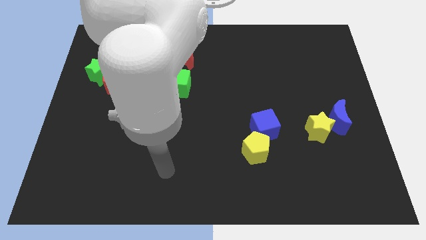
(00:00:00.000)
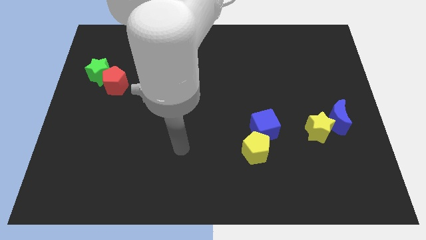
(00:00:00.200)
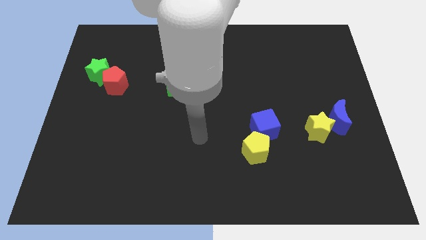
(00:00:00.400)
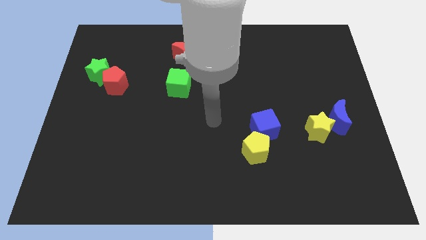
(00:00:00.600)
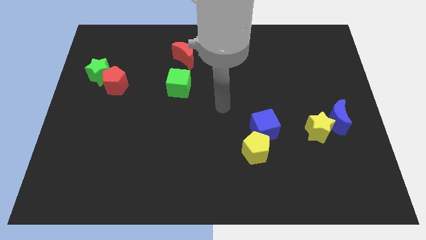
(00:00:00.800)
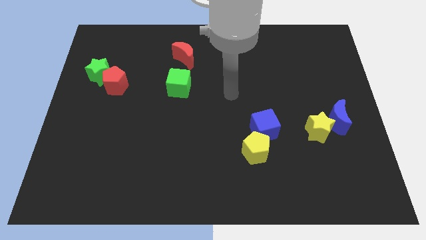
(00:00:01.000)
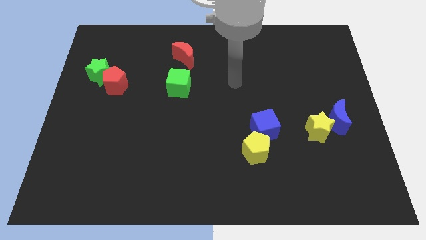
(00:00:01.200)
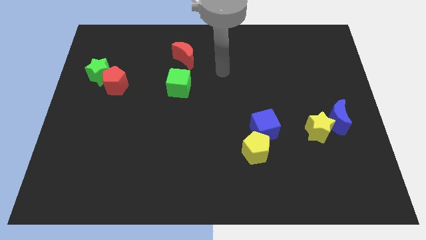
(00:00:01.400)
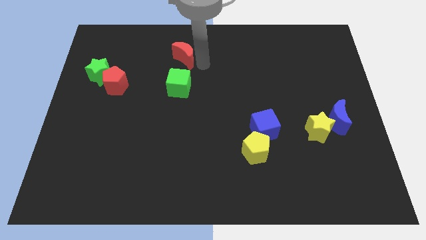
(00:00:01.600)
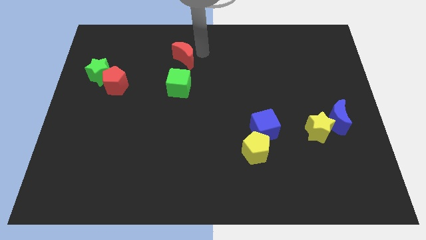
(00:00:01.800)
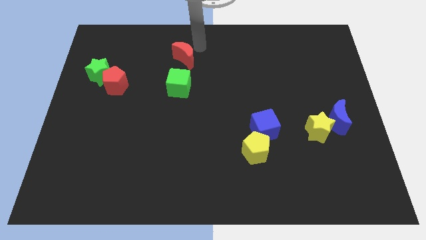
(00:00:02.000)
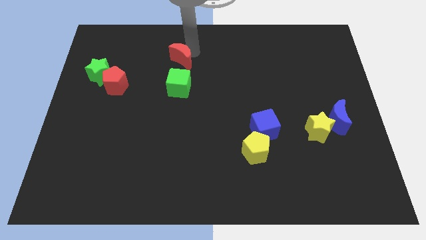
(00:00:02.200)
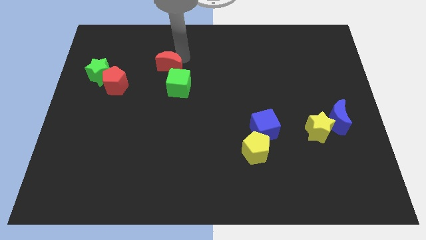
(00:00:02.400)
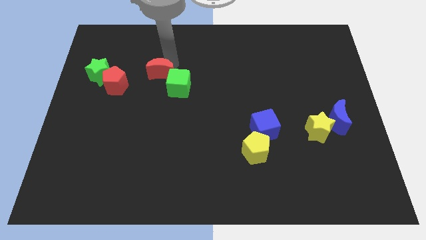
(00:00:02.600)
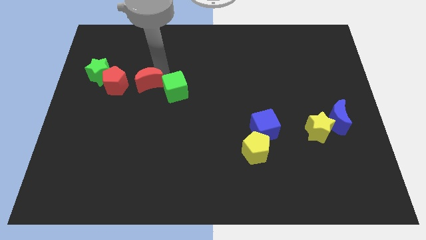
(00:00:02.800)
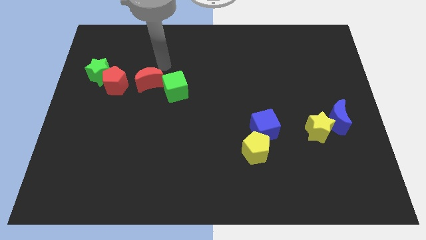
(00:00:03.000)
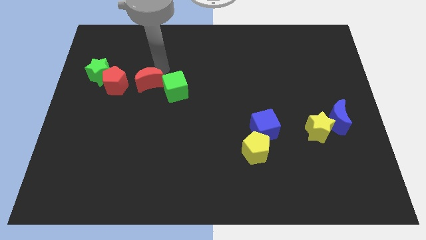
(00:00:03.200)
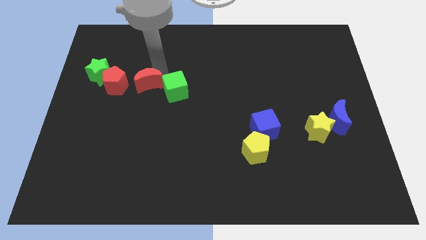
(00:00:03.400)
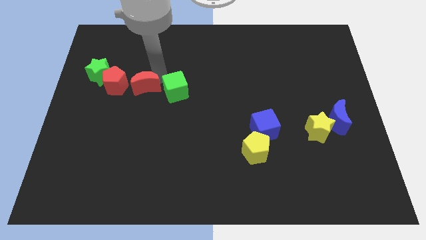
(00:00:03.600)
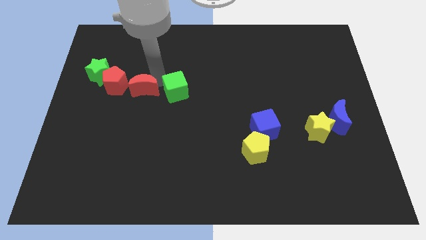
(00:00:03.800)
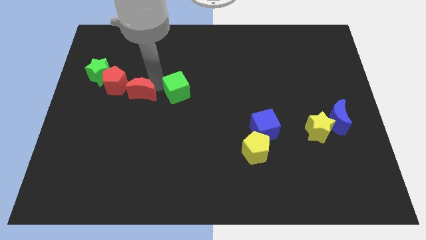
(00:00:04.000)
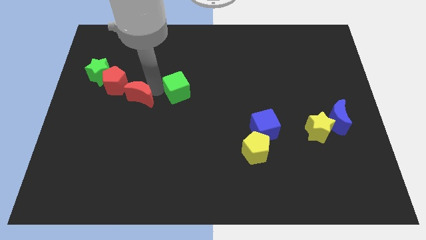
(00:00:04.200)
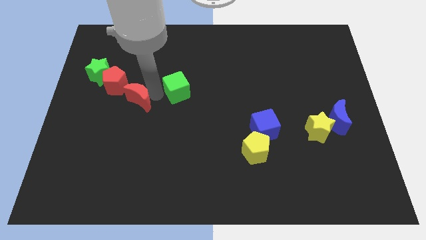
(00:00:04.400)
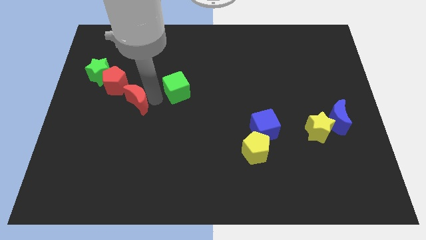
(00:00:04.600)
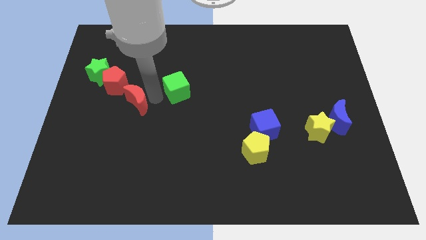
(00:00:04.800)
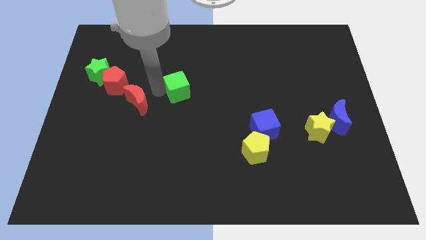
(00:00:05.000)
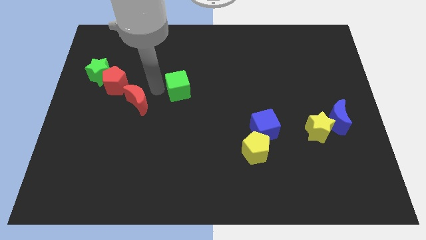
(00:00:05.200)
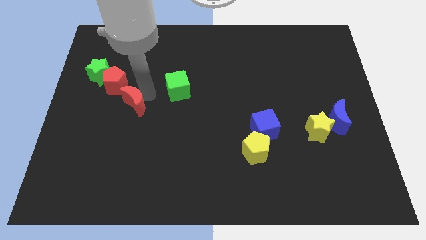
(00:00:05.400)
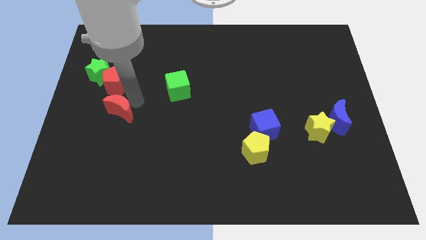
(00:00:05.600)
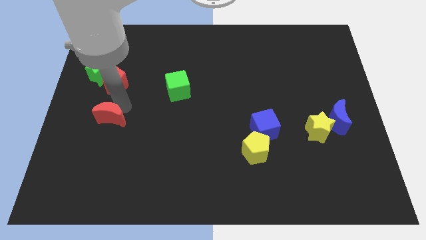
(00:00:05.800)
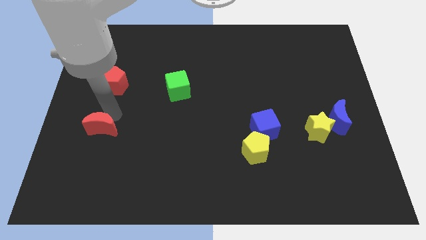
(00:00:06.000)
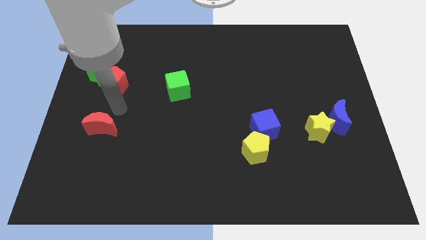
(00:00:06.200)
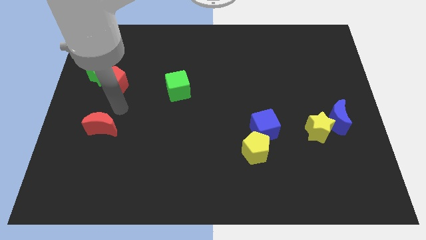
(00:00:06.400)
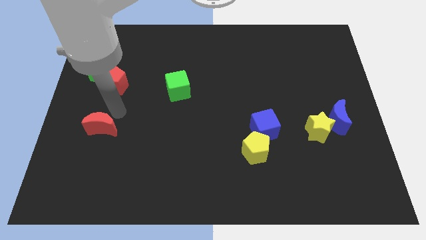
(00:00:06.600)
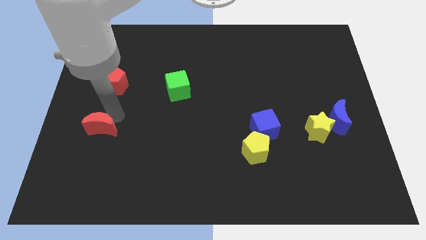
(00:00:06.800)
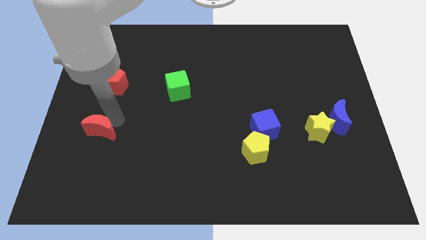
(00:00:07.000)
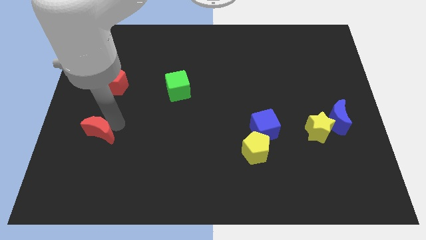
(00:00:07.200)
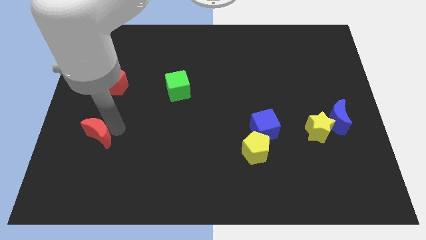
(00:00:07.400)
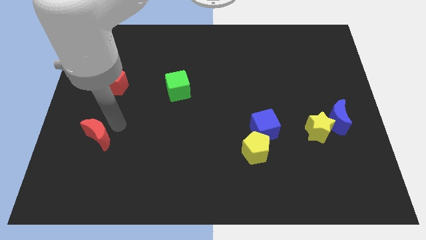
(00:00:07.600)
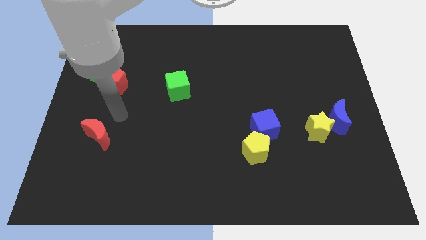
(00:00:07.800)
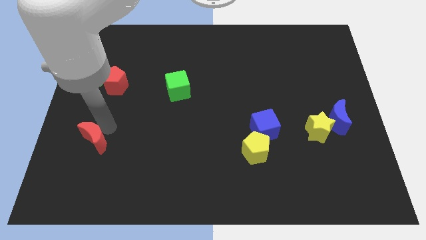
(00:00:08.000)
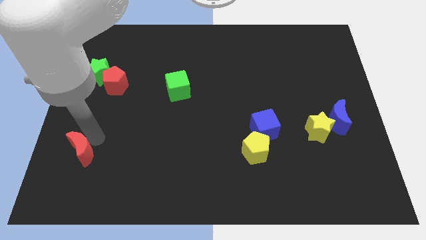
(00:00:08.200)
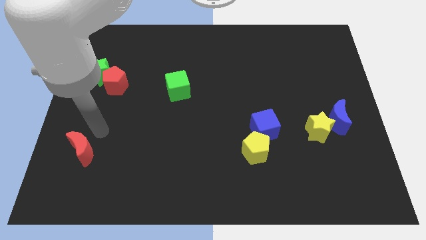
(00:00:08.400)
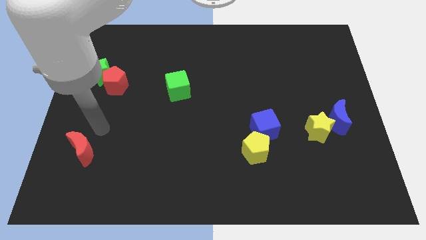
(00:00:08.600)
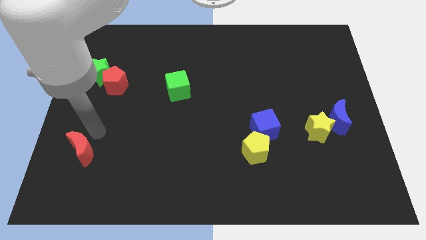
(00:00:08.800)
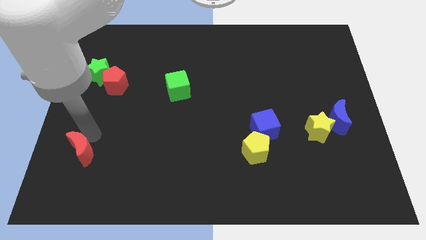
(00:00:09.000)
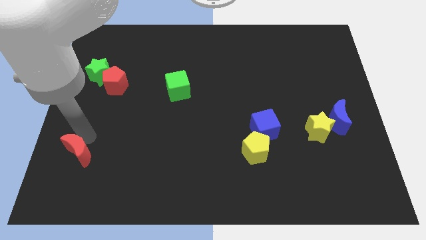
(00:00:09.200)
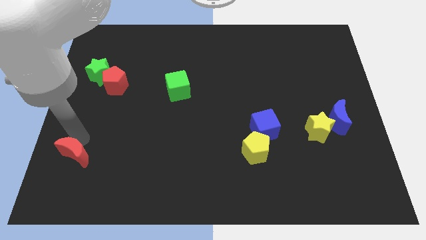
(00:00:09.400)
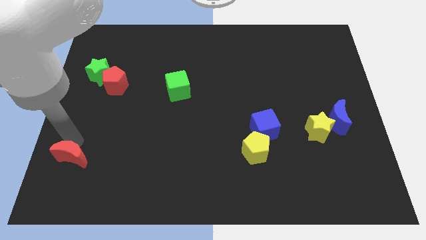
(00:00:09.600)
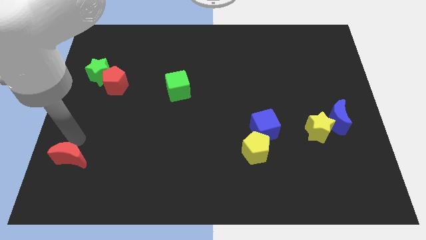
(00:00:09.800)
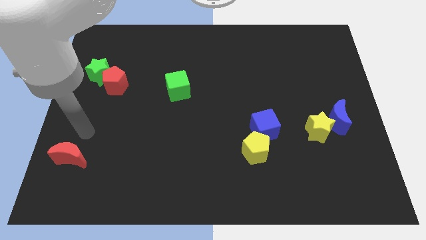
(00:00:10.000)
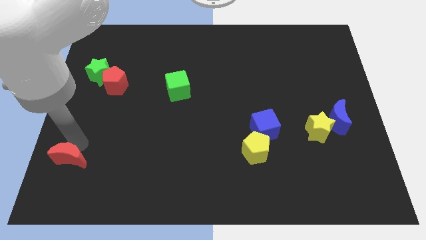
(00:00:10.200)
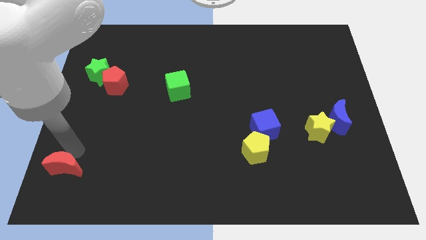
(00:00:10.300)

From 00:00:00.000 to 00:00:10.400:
push the red moon to the lower left corner

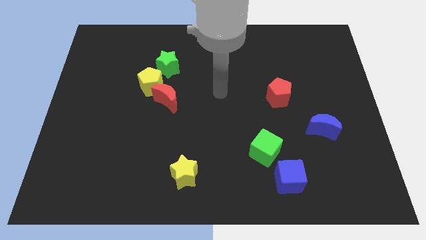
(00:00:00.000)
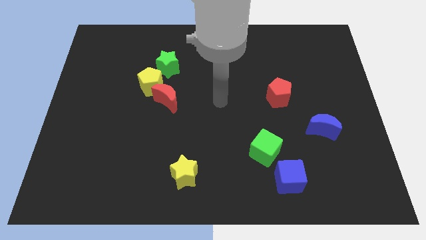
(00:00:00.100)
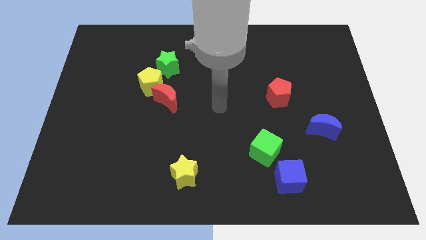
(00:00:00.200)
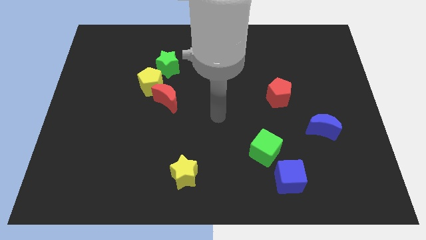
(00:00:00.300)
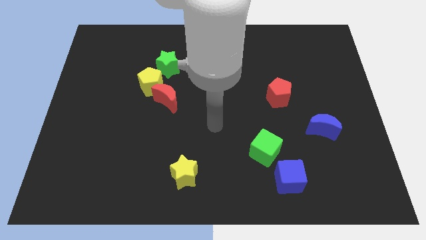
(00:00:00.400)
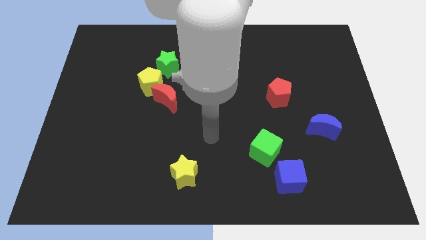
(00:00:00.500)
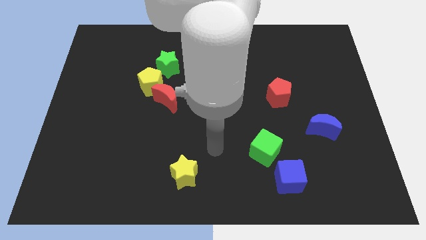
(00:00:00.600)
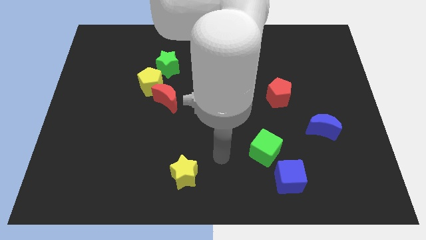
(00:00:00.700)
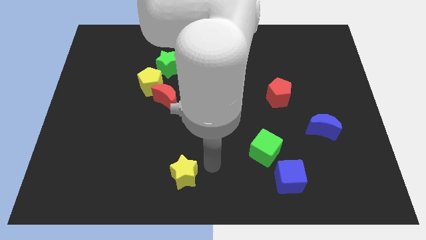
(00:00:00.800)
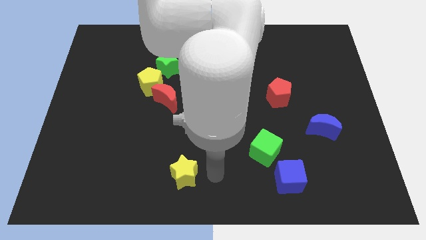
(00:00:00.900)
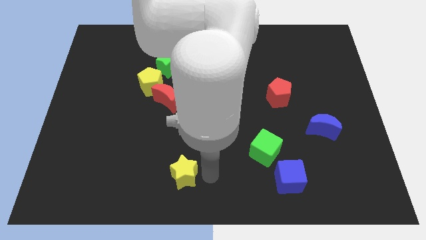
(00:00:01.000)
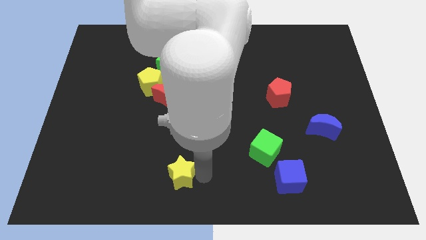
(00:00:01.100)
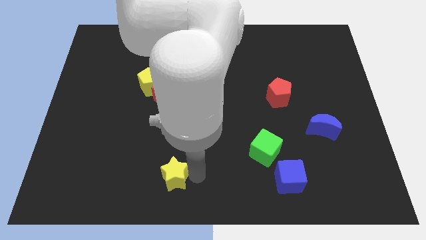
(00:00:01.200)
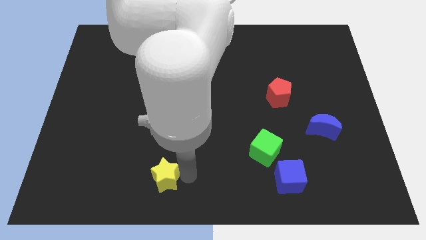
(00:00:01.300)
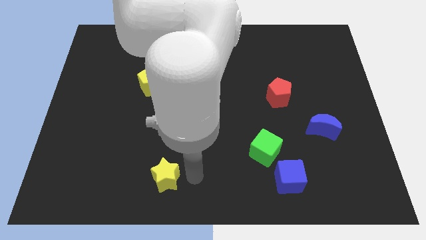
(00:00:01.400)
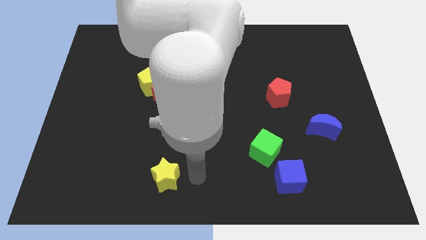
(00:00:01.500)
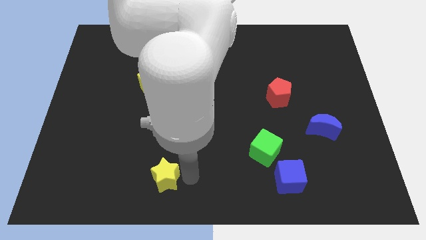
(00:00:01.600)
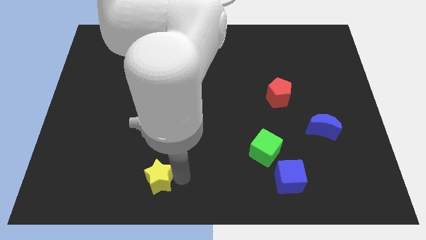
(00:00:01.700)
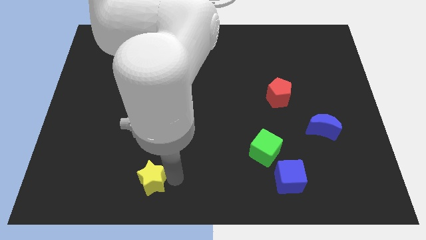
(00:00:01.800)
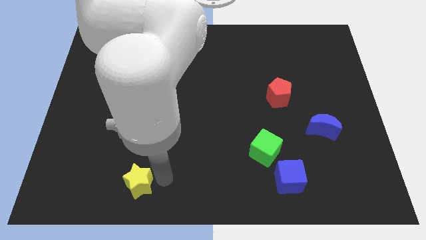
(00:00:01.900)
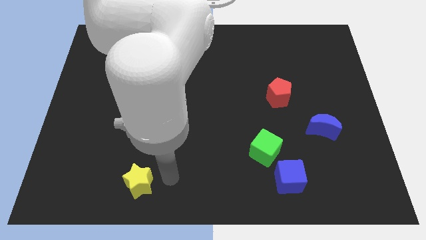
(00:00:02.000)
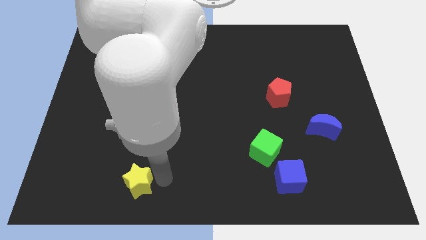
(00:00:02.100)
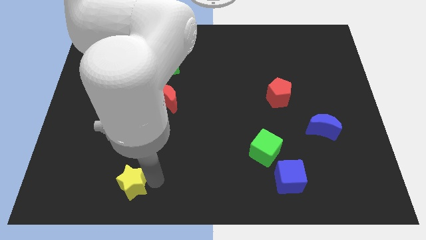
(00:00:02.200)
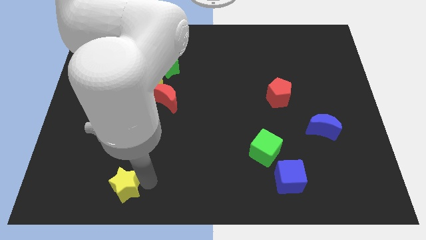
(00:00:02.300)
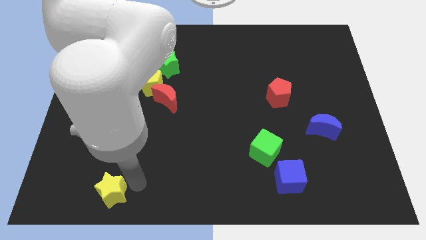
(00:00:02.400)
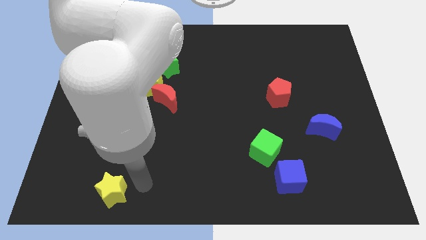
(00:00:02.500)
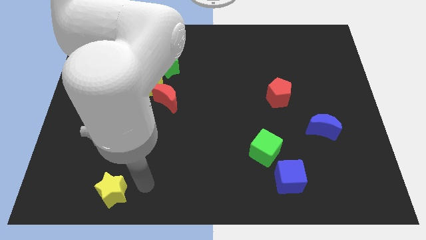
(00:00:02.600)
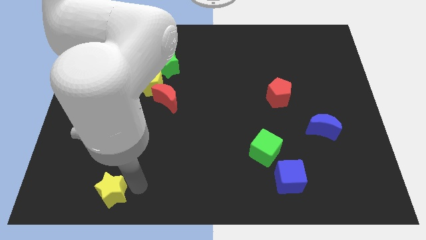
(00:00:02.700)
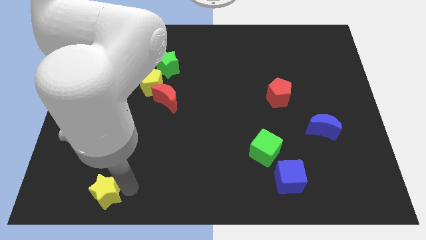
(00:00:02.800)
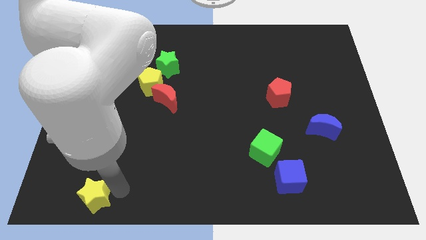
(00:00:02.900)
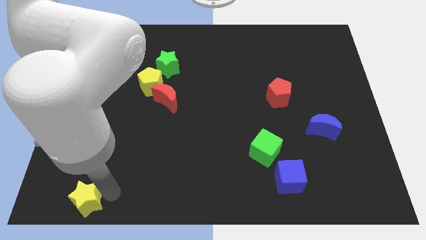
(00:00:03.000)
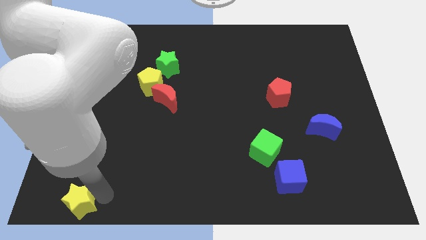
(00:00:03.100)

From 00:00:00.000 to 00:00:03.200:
put the yellow star to the lower left corner
